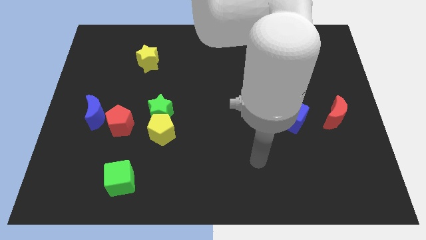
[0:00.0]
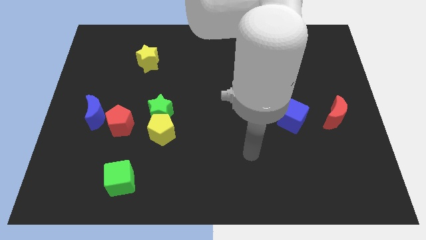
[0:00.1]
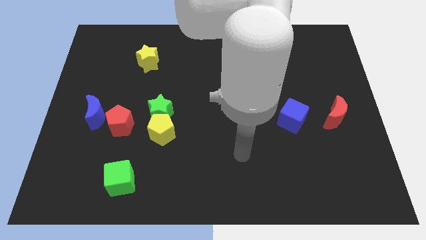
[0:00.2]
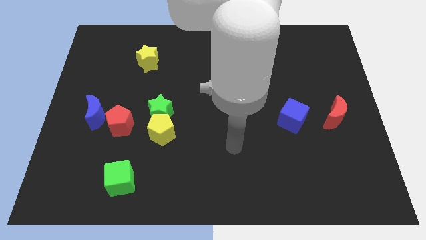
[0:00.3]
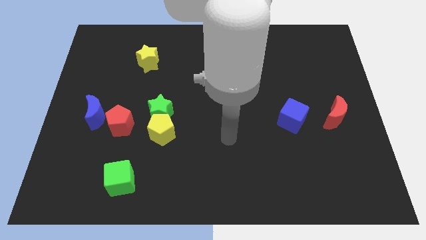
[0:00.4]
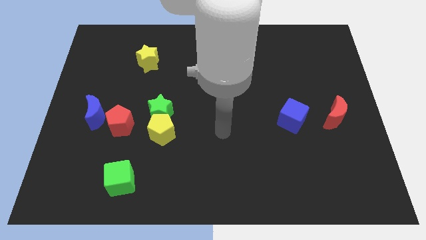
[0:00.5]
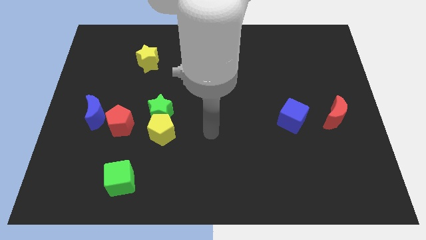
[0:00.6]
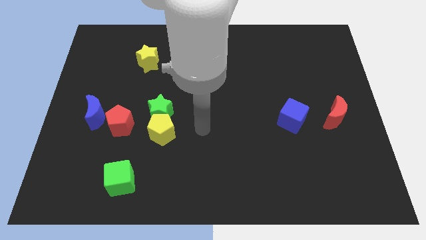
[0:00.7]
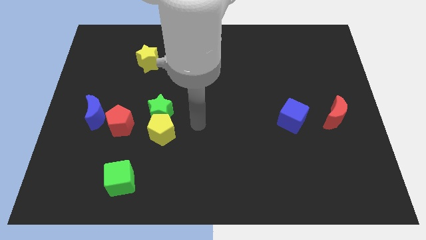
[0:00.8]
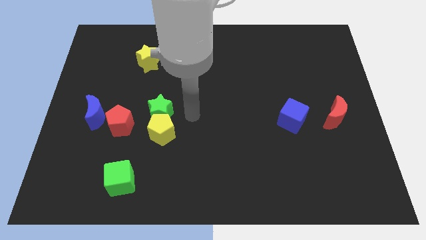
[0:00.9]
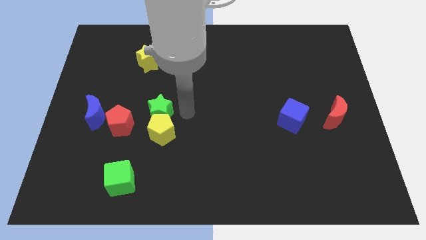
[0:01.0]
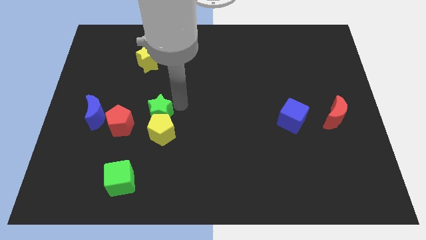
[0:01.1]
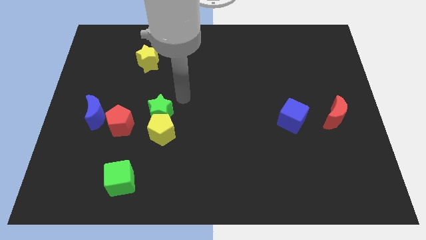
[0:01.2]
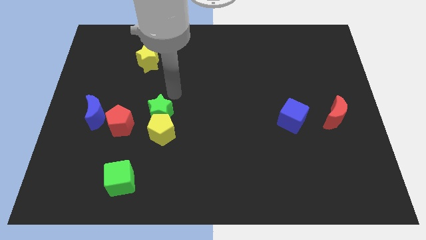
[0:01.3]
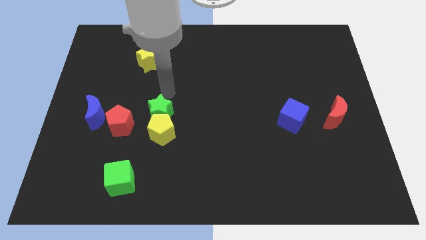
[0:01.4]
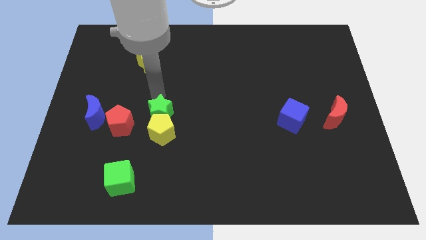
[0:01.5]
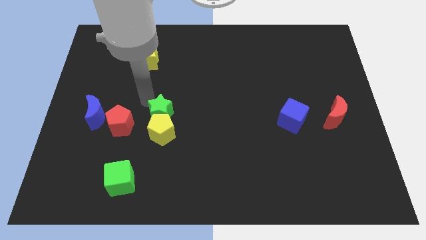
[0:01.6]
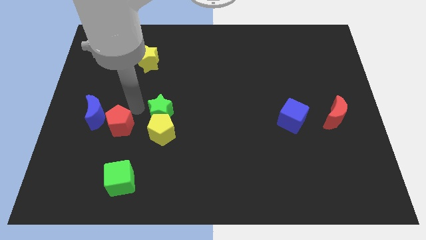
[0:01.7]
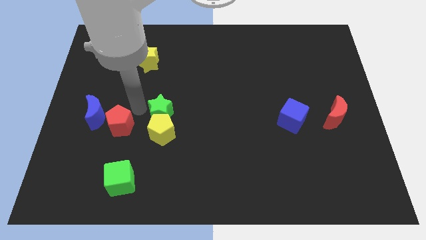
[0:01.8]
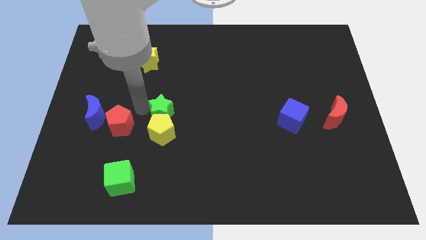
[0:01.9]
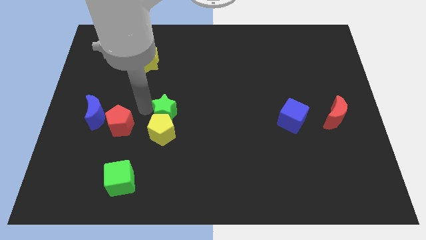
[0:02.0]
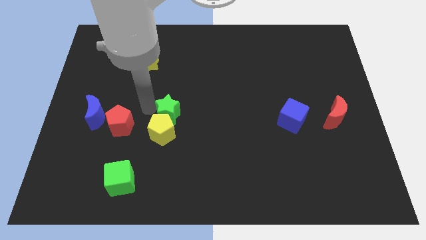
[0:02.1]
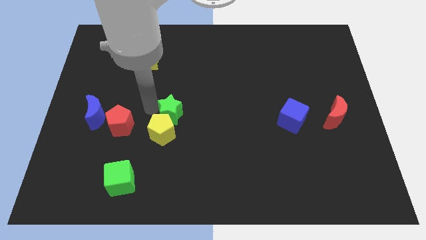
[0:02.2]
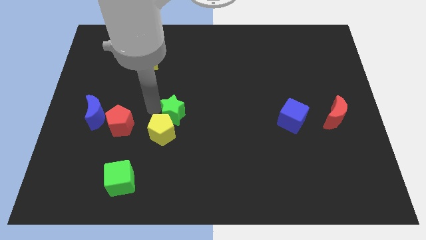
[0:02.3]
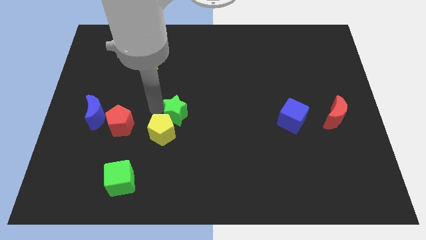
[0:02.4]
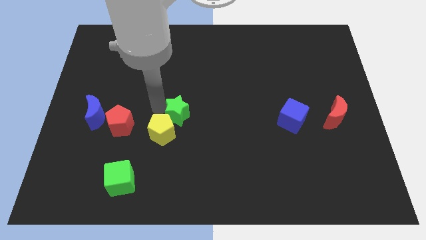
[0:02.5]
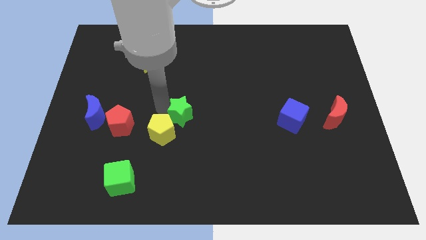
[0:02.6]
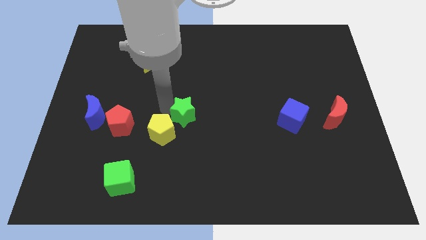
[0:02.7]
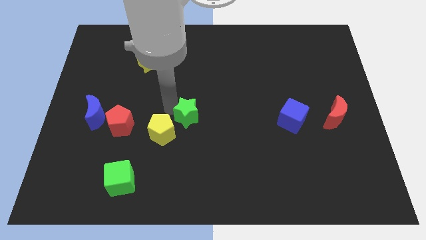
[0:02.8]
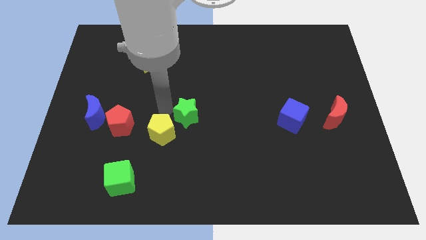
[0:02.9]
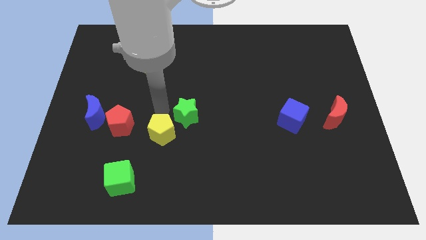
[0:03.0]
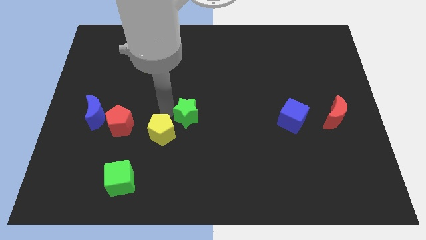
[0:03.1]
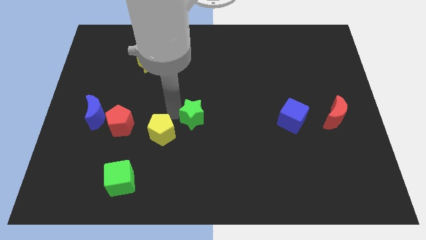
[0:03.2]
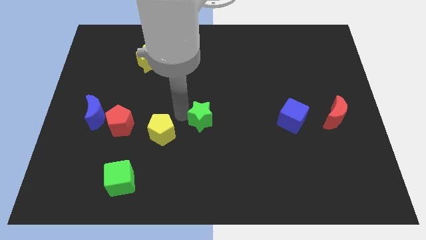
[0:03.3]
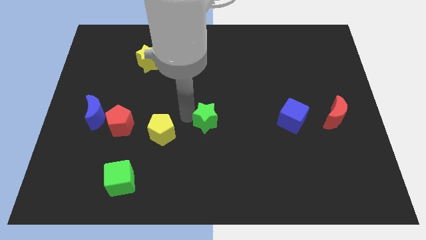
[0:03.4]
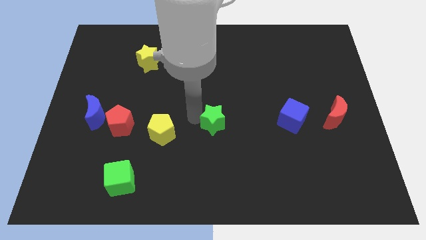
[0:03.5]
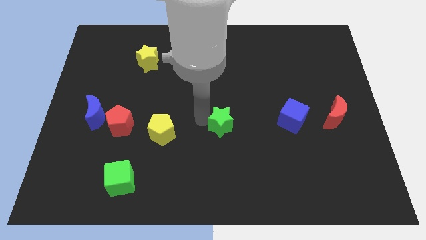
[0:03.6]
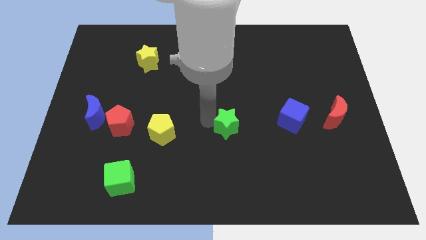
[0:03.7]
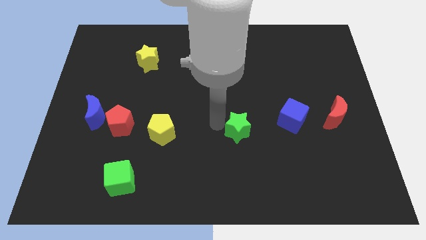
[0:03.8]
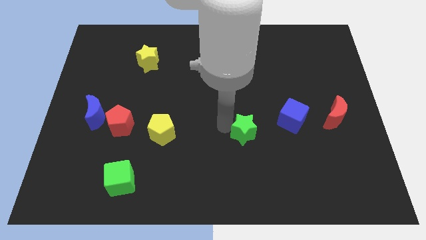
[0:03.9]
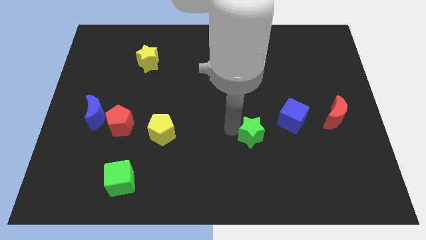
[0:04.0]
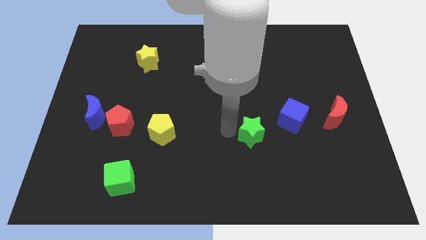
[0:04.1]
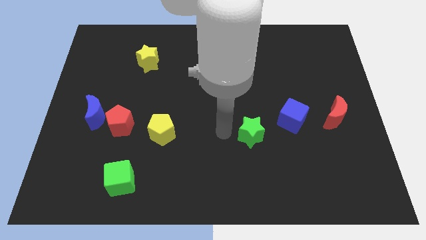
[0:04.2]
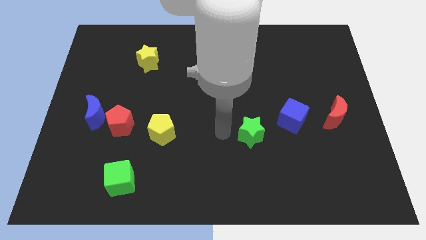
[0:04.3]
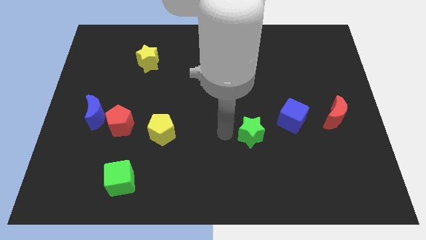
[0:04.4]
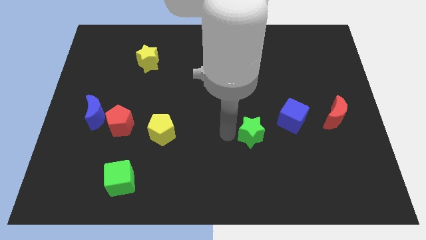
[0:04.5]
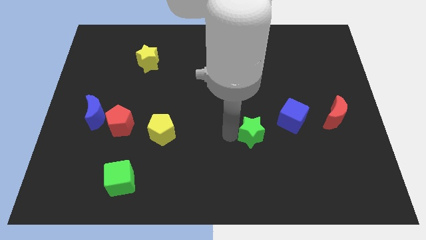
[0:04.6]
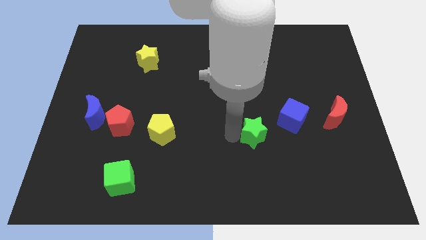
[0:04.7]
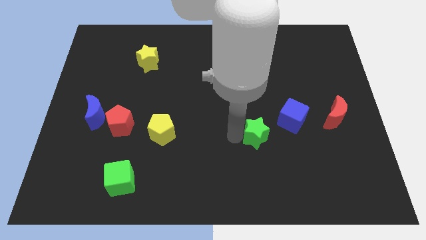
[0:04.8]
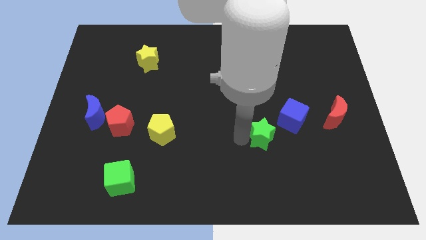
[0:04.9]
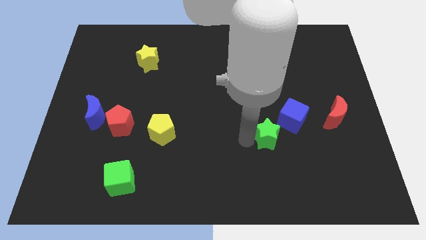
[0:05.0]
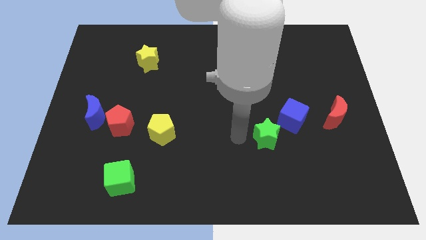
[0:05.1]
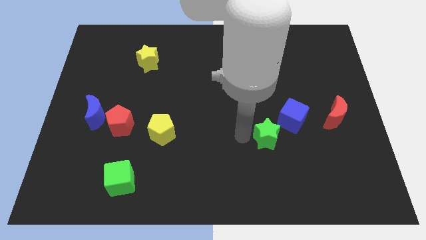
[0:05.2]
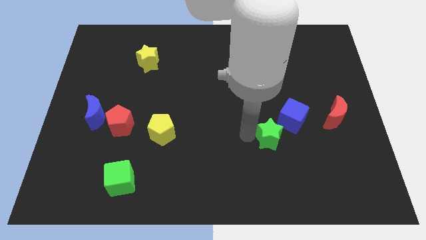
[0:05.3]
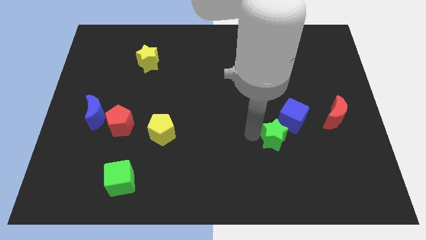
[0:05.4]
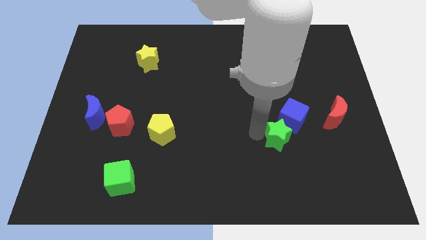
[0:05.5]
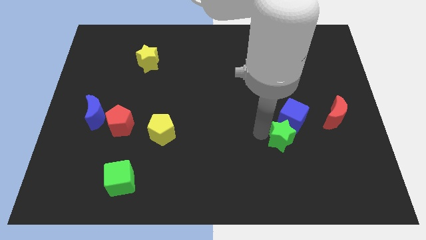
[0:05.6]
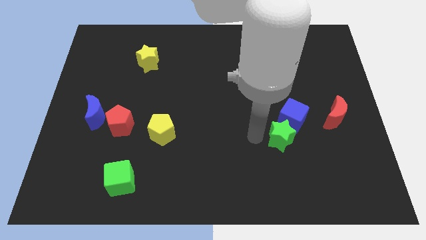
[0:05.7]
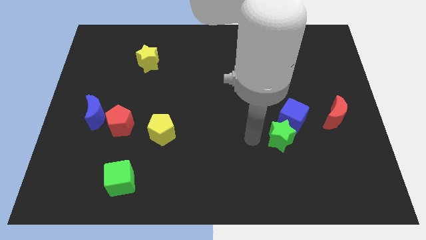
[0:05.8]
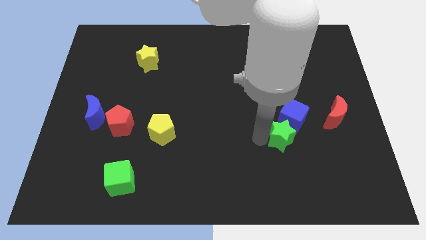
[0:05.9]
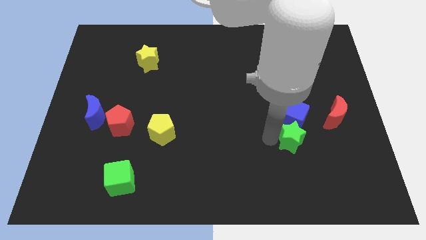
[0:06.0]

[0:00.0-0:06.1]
put the green star to the bottom right of the blue cube
